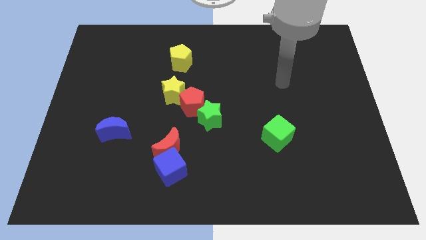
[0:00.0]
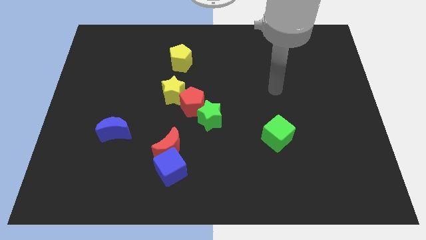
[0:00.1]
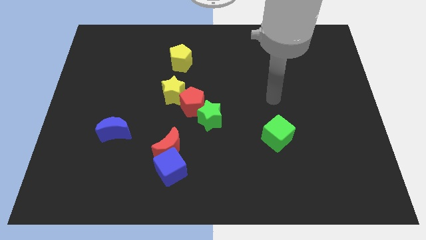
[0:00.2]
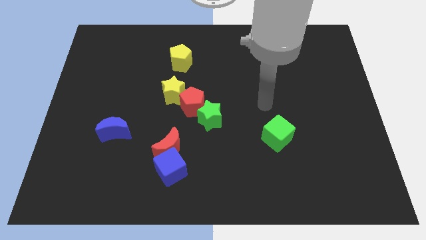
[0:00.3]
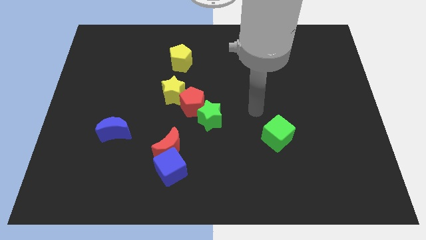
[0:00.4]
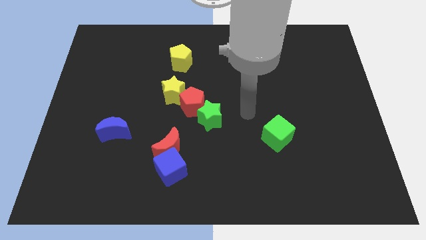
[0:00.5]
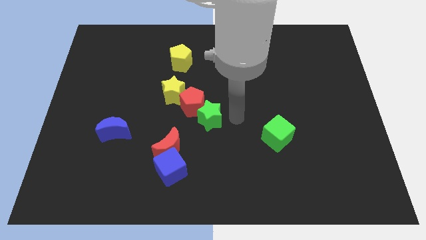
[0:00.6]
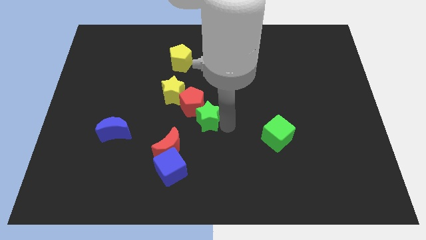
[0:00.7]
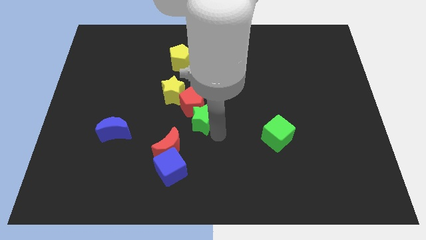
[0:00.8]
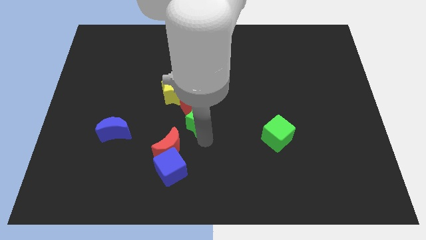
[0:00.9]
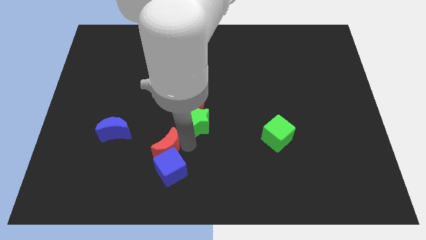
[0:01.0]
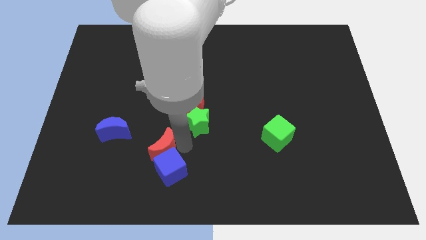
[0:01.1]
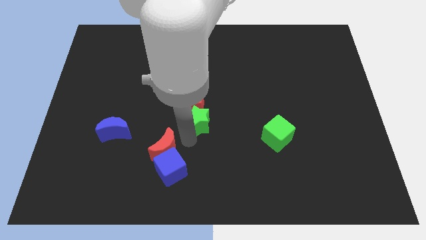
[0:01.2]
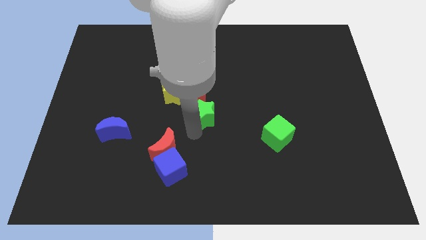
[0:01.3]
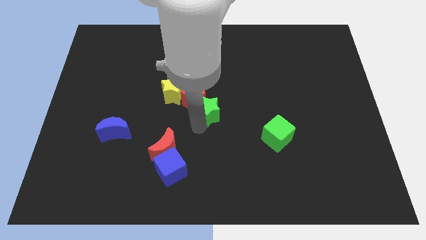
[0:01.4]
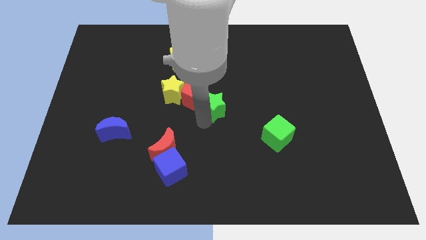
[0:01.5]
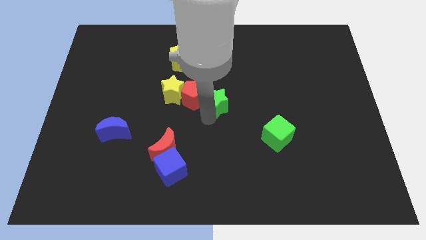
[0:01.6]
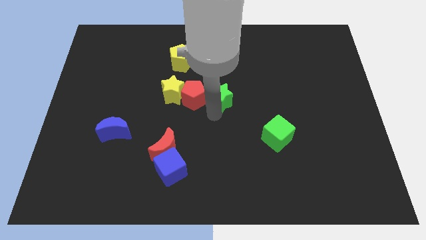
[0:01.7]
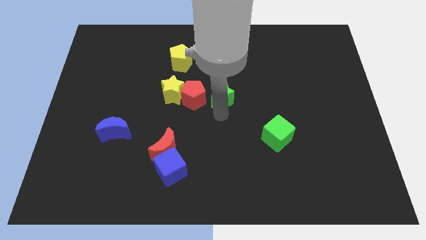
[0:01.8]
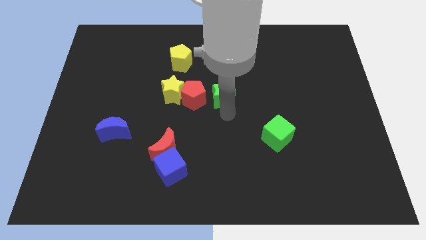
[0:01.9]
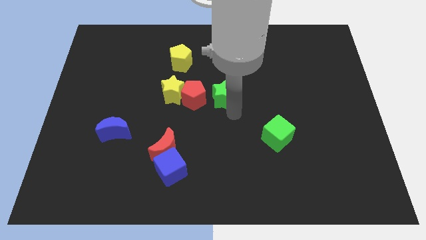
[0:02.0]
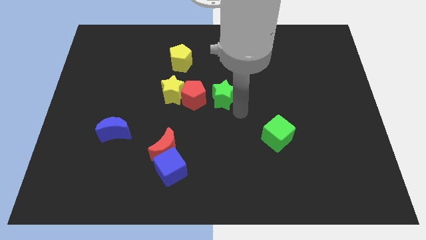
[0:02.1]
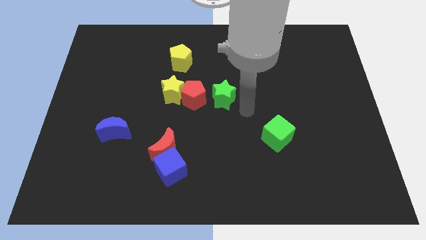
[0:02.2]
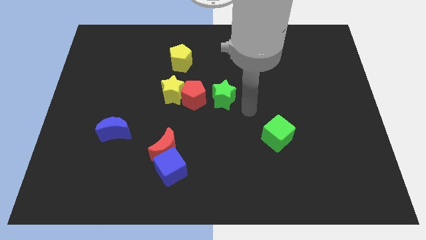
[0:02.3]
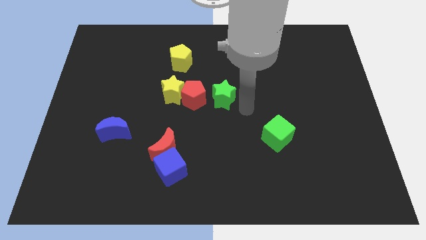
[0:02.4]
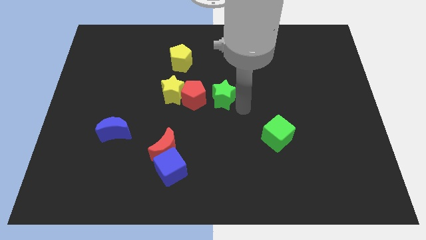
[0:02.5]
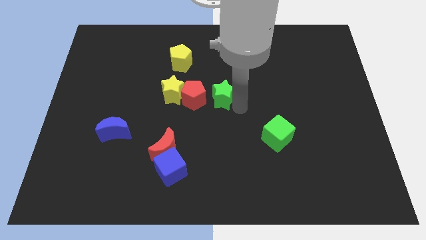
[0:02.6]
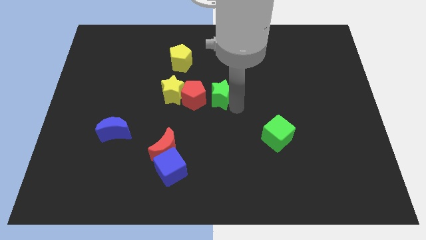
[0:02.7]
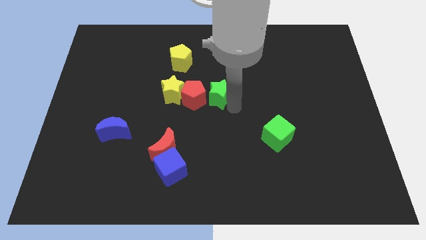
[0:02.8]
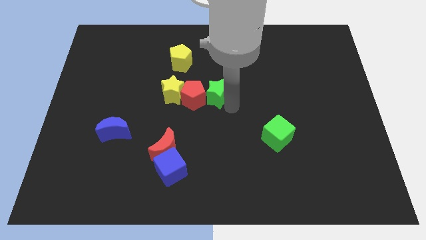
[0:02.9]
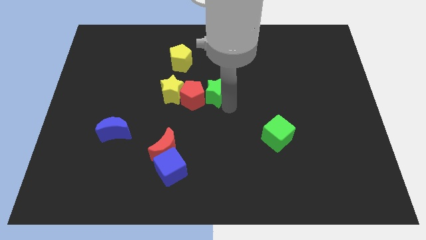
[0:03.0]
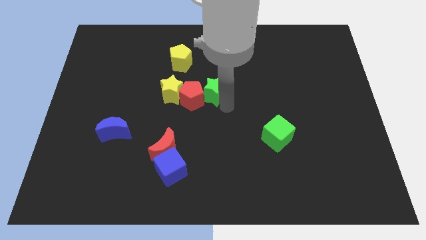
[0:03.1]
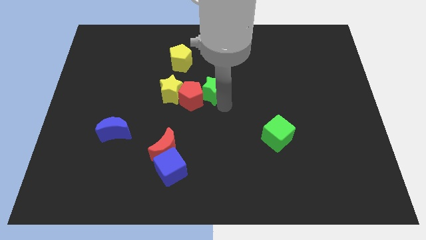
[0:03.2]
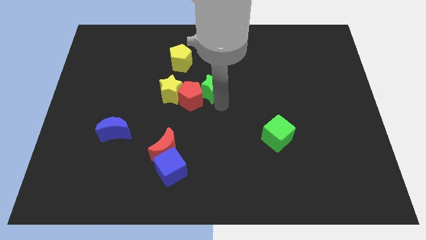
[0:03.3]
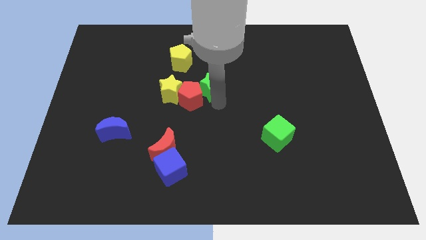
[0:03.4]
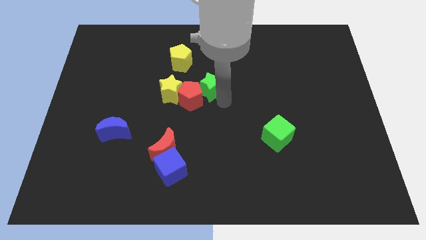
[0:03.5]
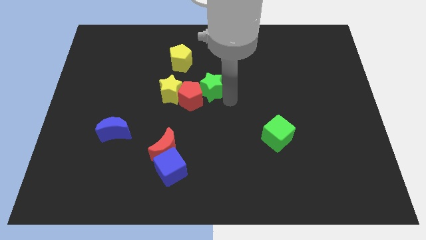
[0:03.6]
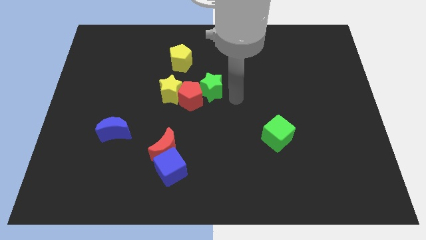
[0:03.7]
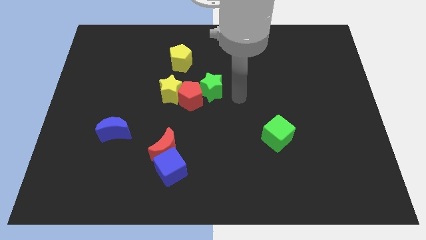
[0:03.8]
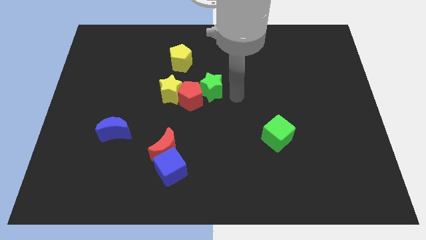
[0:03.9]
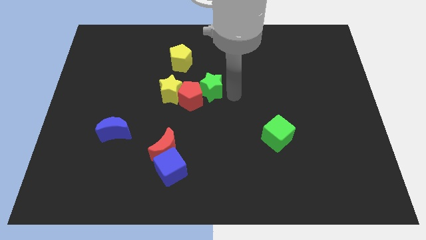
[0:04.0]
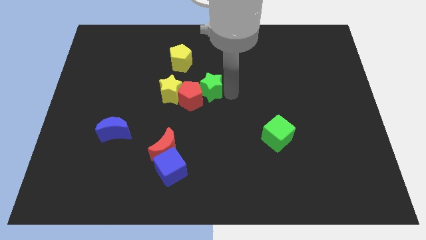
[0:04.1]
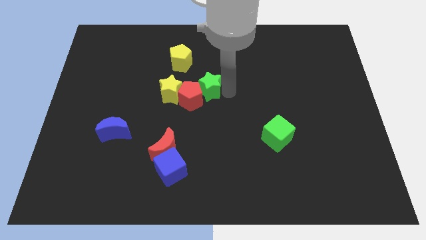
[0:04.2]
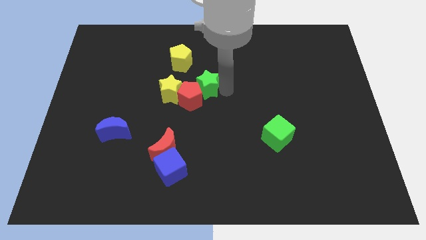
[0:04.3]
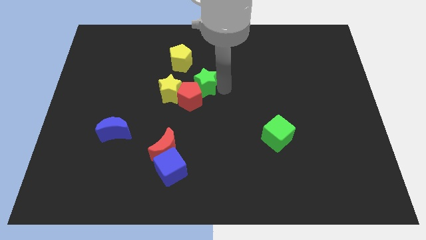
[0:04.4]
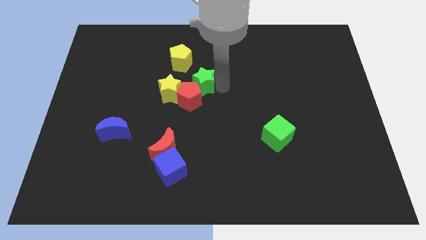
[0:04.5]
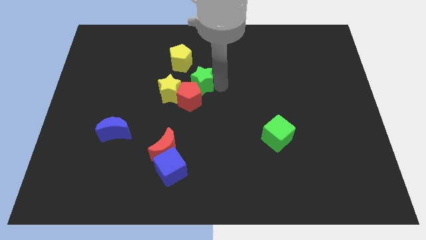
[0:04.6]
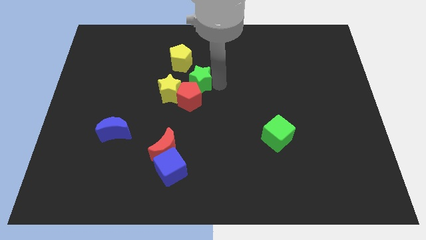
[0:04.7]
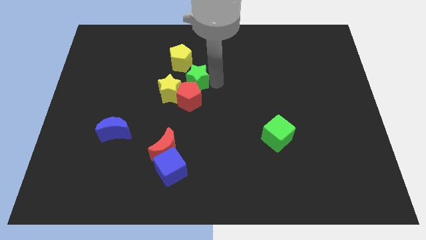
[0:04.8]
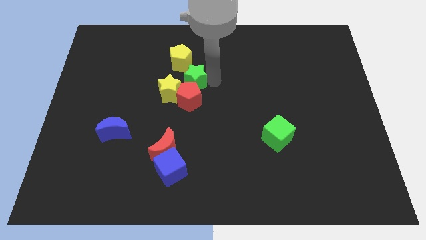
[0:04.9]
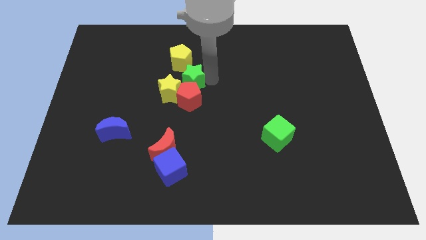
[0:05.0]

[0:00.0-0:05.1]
slide the green star to the top left of the red pentagon

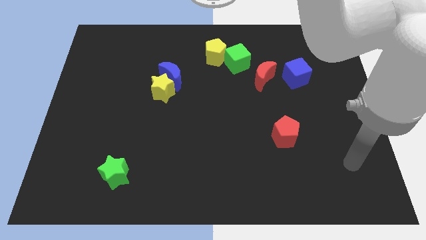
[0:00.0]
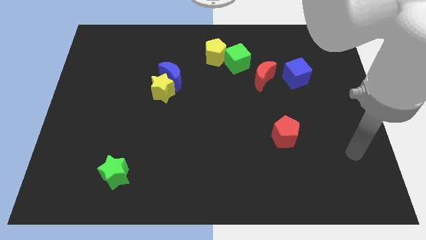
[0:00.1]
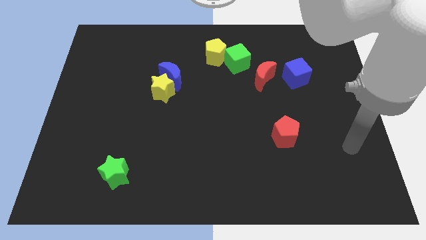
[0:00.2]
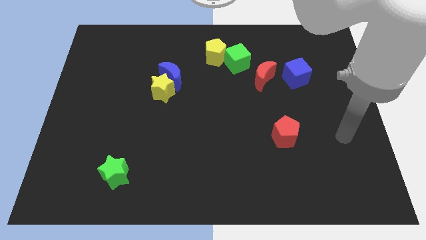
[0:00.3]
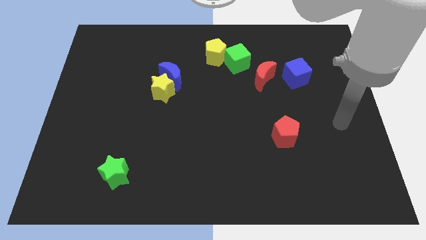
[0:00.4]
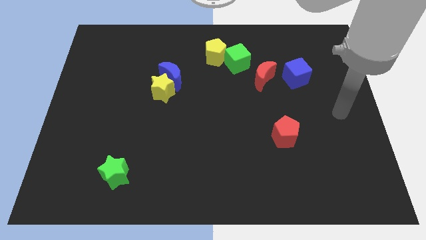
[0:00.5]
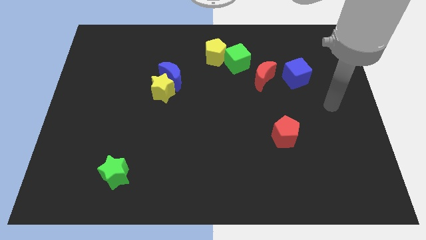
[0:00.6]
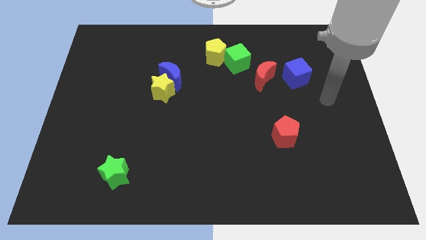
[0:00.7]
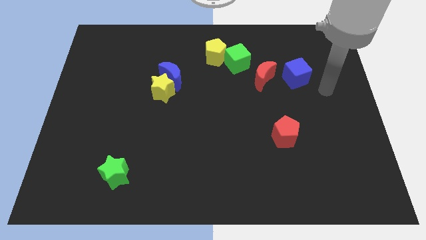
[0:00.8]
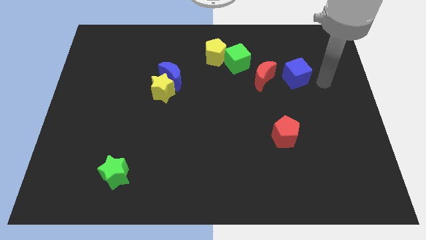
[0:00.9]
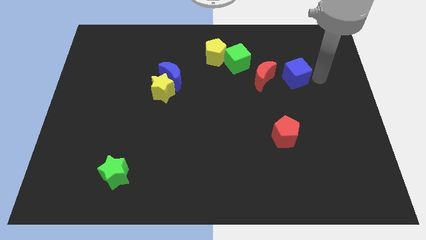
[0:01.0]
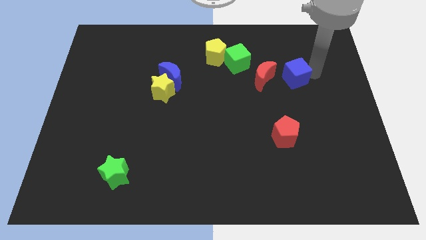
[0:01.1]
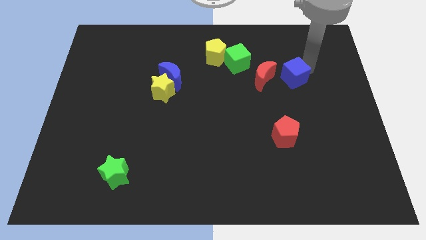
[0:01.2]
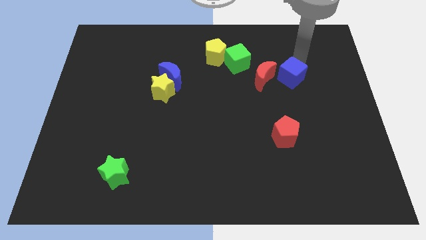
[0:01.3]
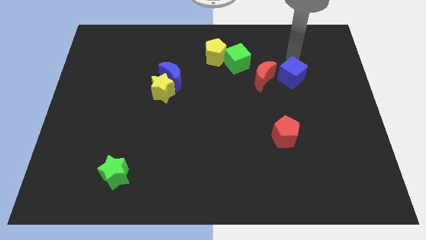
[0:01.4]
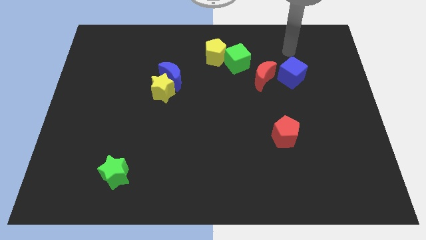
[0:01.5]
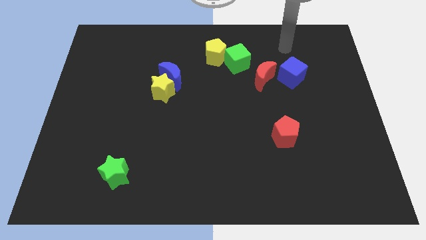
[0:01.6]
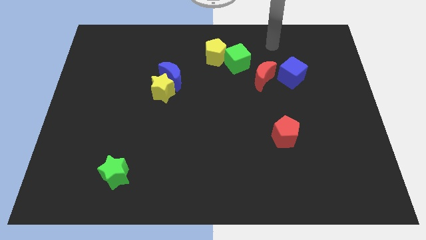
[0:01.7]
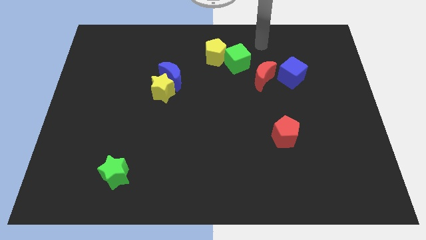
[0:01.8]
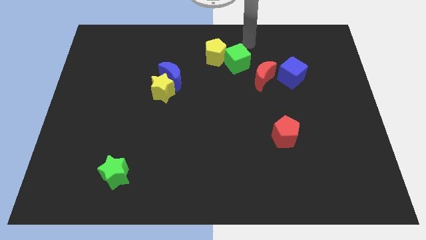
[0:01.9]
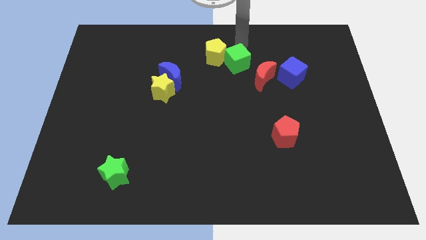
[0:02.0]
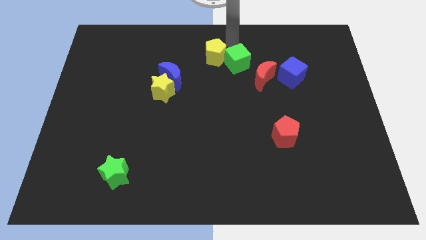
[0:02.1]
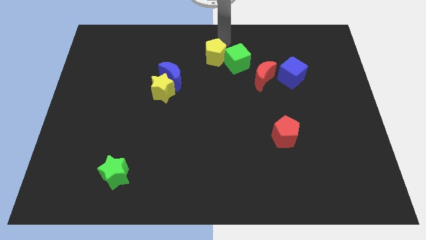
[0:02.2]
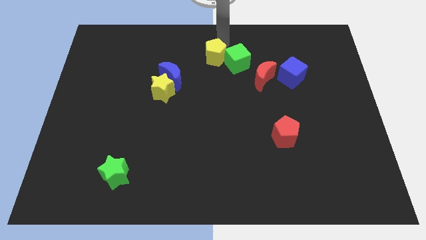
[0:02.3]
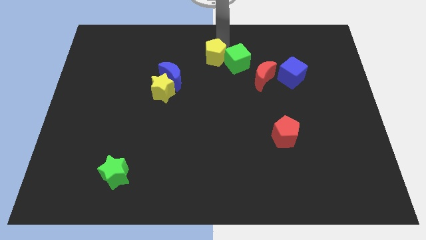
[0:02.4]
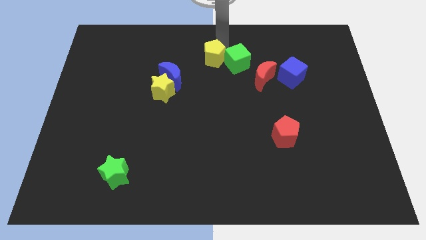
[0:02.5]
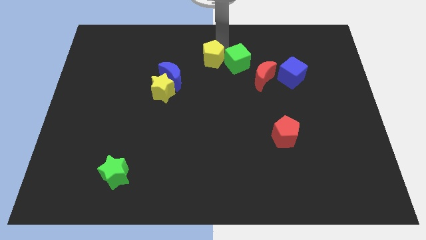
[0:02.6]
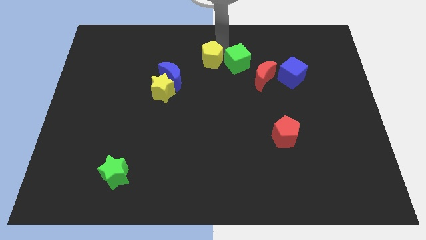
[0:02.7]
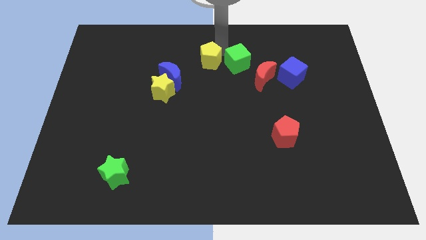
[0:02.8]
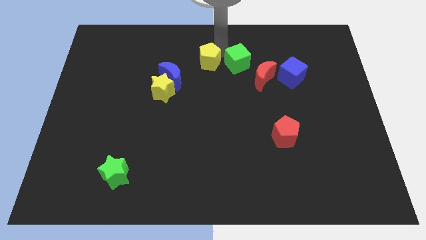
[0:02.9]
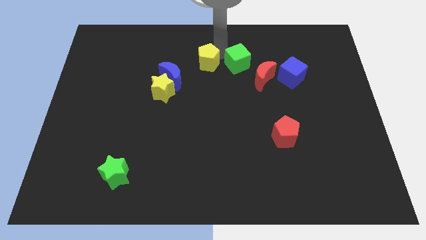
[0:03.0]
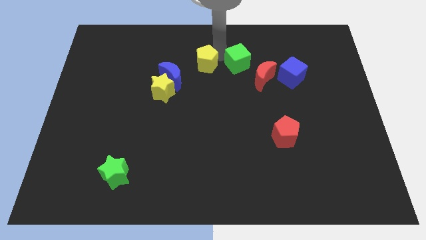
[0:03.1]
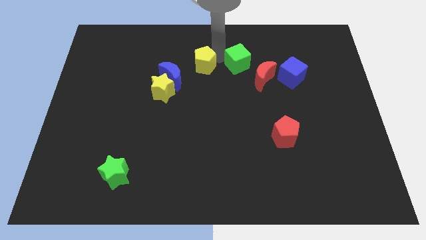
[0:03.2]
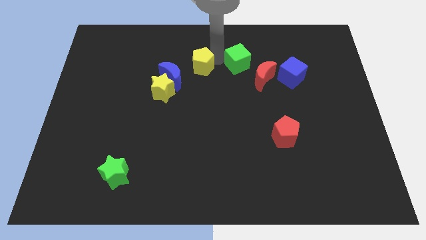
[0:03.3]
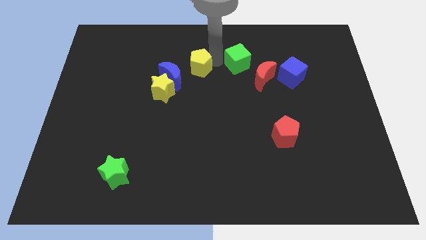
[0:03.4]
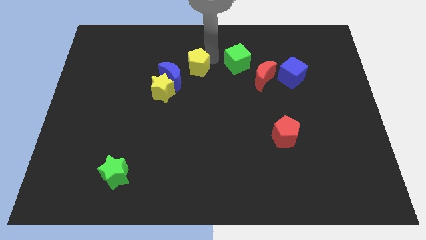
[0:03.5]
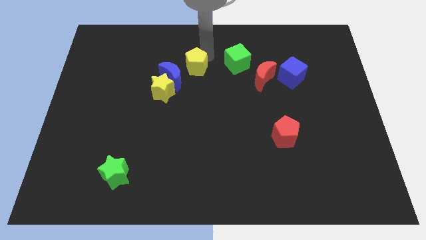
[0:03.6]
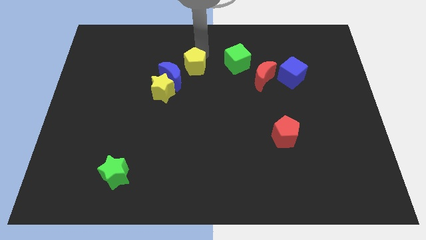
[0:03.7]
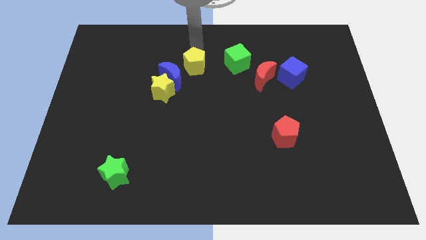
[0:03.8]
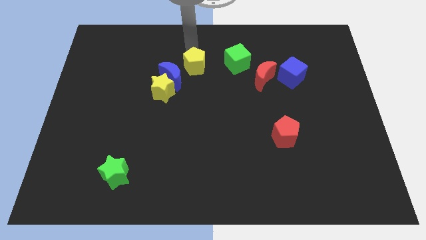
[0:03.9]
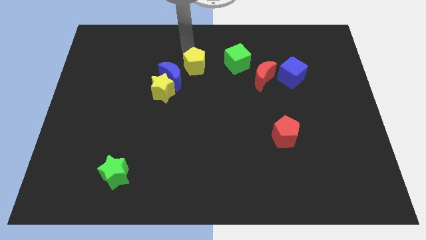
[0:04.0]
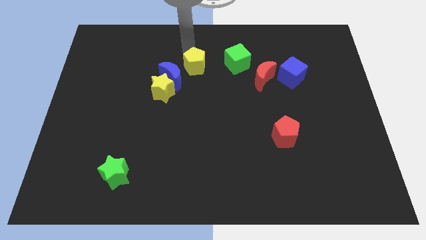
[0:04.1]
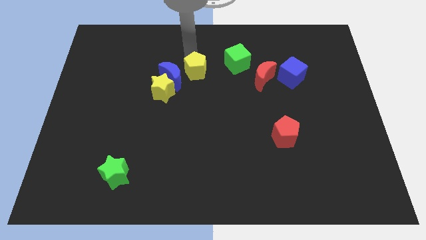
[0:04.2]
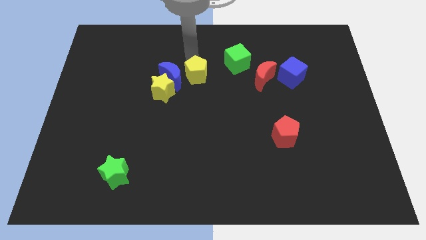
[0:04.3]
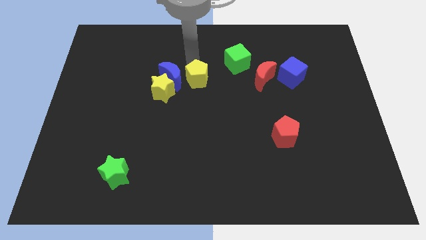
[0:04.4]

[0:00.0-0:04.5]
move the yellow pentagon to the bottom right side of the blue moon
